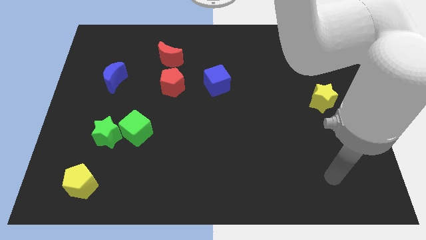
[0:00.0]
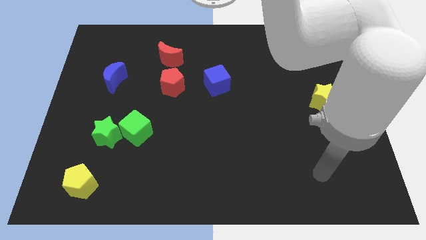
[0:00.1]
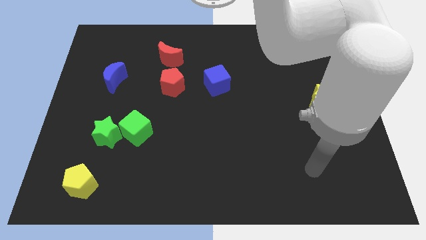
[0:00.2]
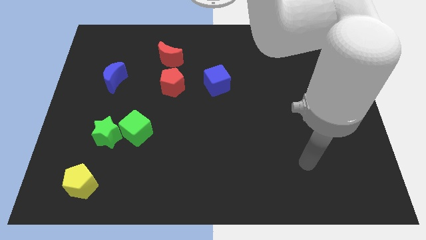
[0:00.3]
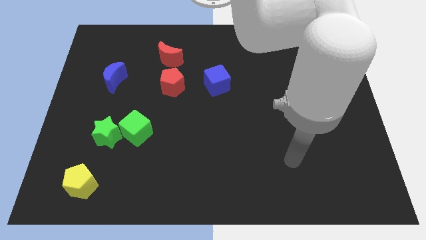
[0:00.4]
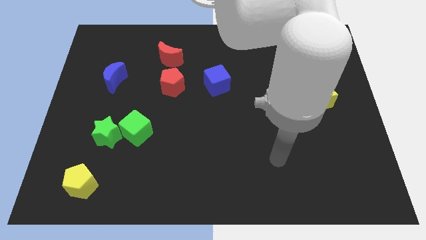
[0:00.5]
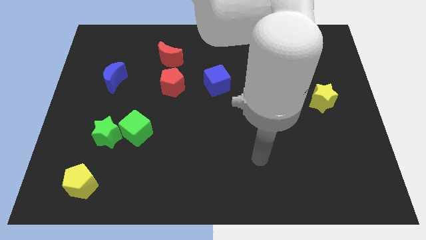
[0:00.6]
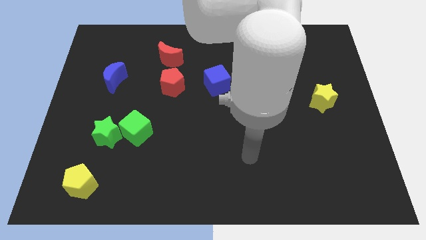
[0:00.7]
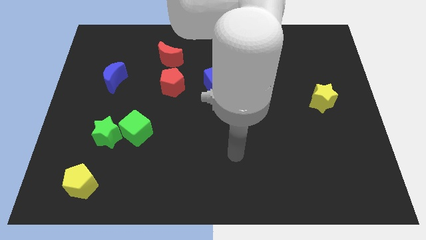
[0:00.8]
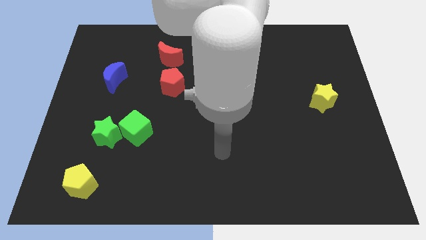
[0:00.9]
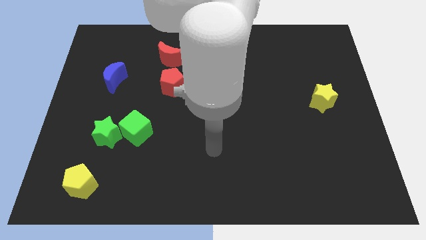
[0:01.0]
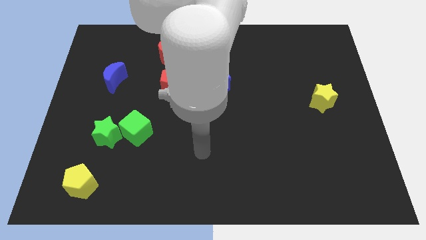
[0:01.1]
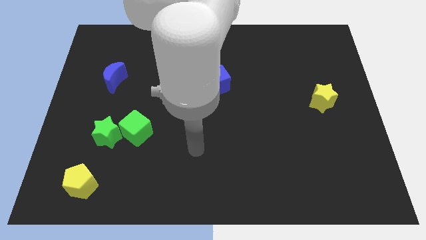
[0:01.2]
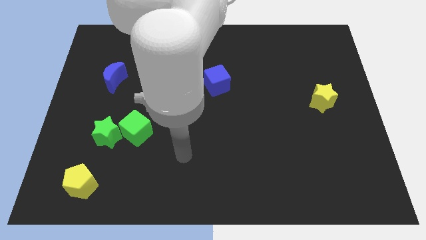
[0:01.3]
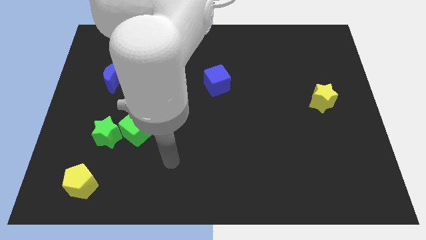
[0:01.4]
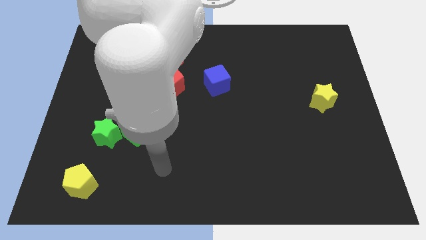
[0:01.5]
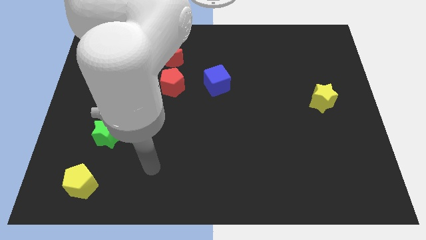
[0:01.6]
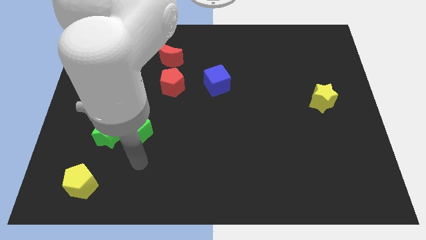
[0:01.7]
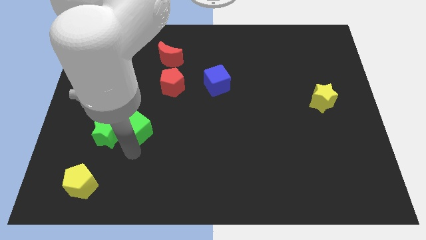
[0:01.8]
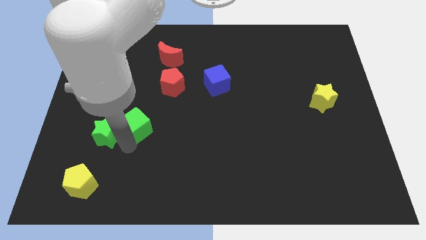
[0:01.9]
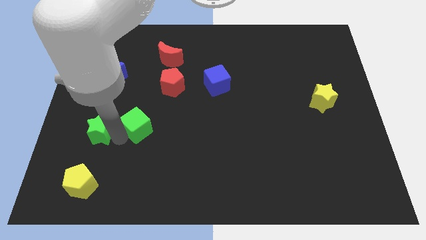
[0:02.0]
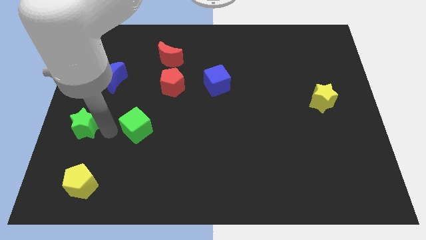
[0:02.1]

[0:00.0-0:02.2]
move the green cube away from the green star

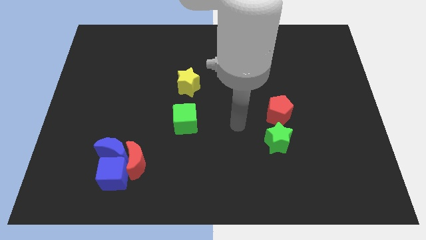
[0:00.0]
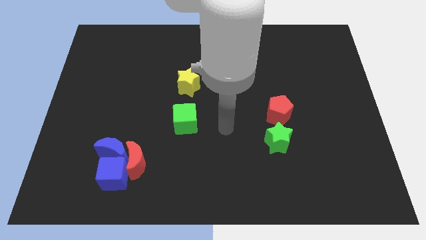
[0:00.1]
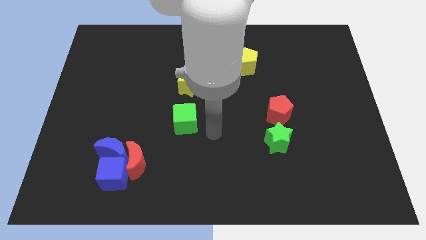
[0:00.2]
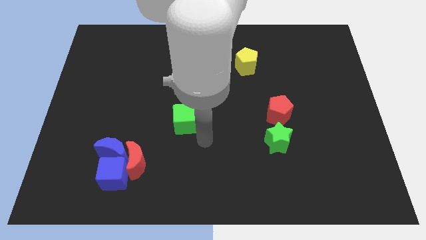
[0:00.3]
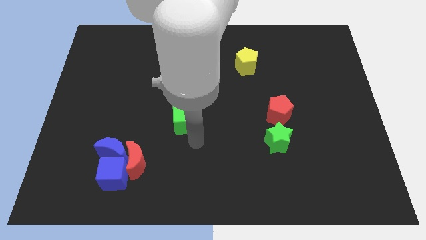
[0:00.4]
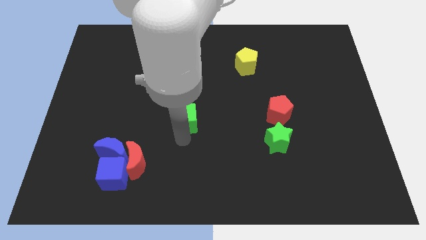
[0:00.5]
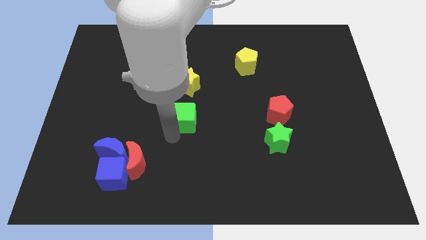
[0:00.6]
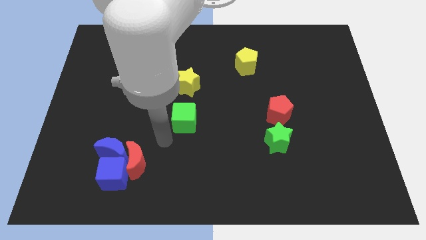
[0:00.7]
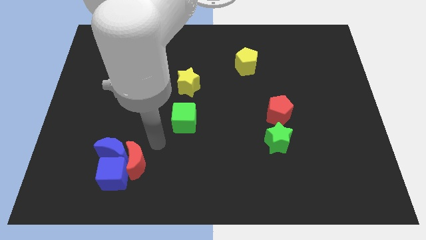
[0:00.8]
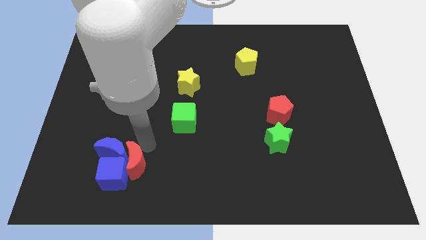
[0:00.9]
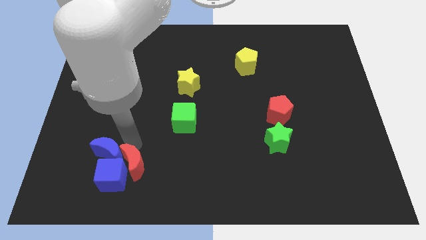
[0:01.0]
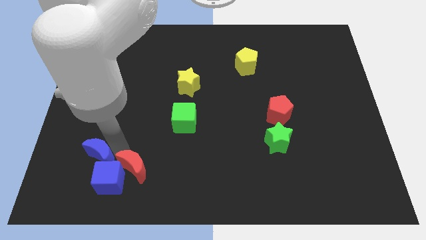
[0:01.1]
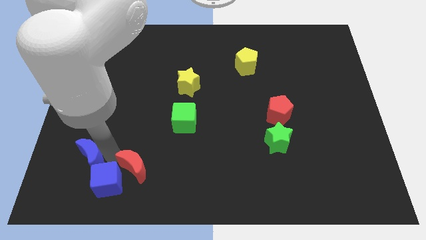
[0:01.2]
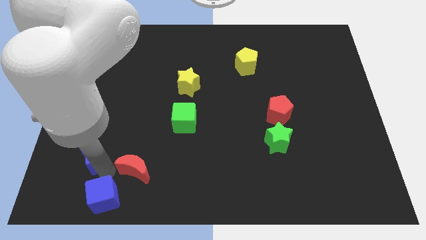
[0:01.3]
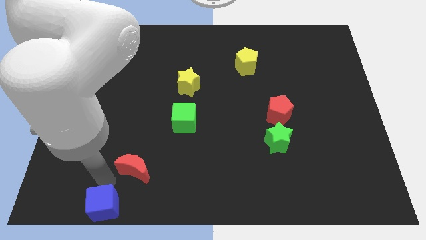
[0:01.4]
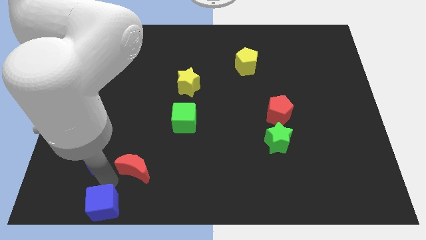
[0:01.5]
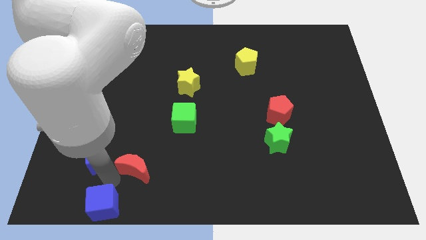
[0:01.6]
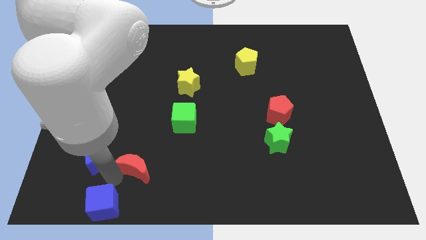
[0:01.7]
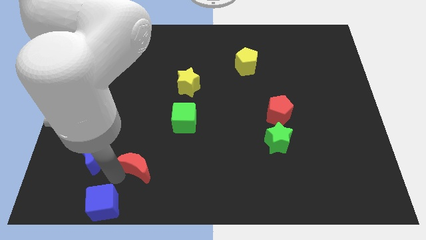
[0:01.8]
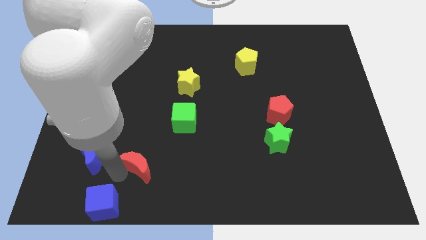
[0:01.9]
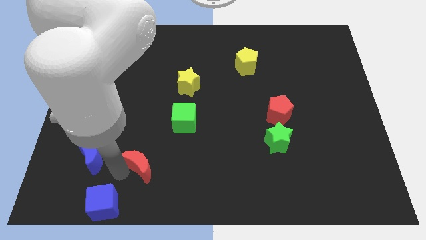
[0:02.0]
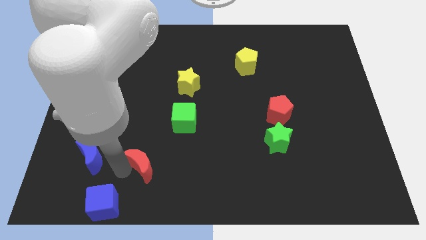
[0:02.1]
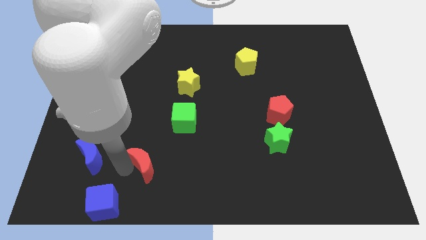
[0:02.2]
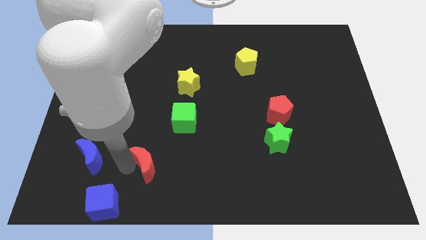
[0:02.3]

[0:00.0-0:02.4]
separate the red moon from the blue cube and blue moon

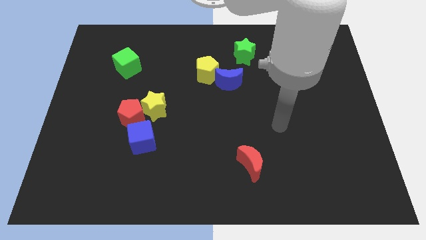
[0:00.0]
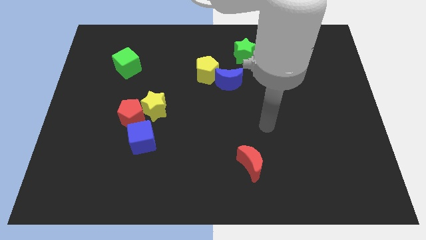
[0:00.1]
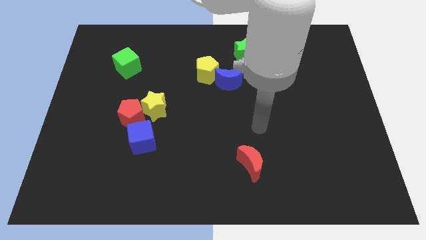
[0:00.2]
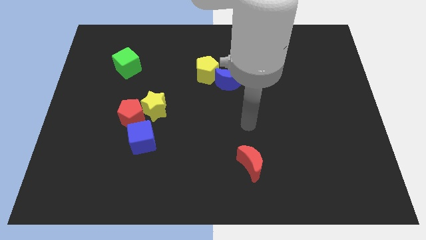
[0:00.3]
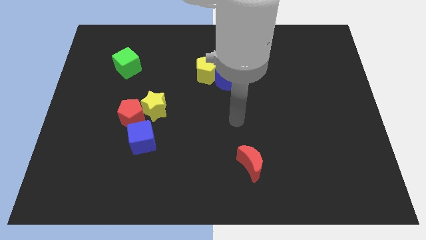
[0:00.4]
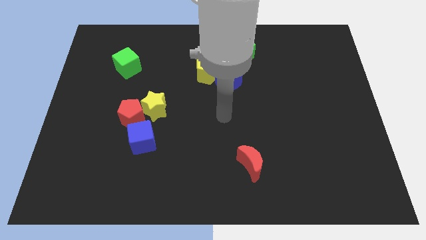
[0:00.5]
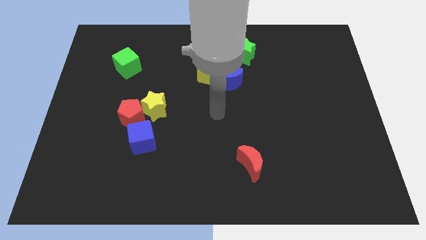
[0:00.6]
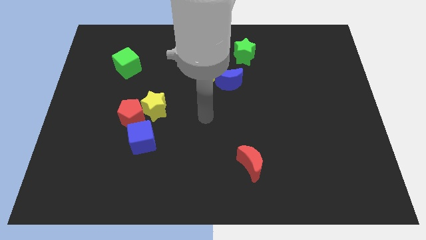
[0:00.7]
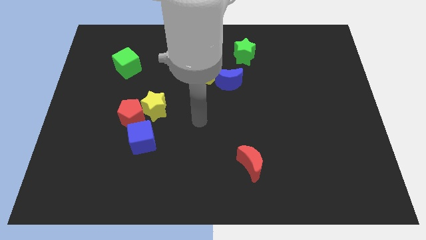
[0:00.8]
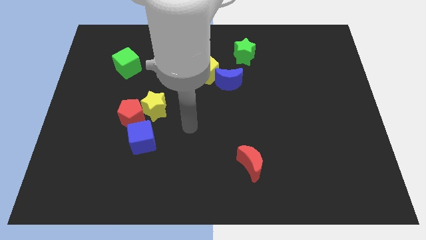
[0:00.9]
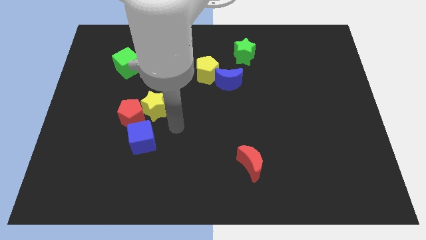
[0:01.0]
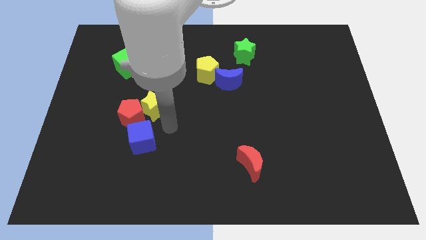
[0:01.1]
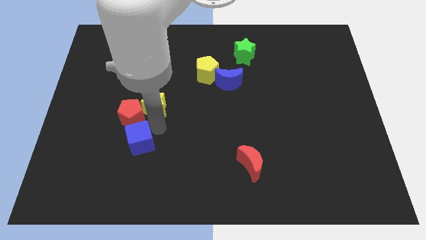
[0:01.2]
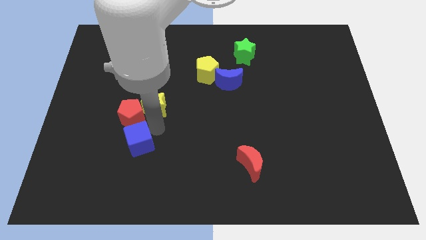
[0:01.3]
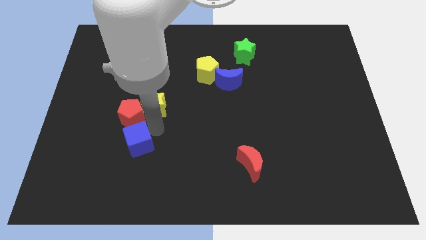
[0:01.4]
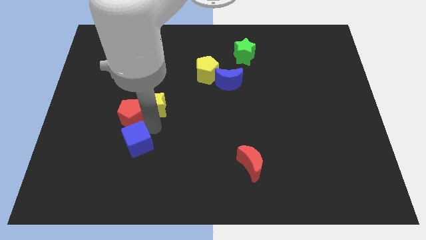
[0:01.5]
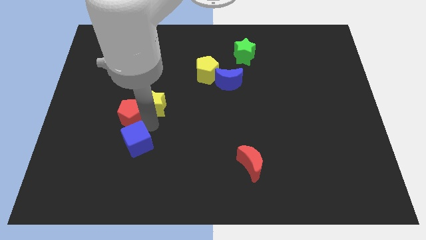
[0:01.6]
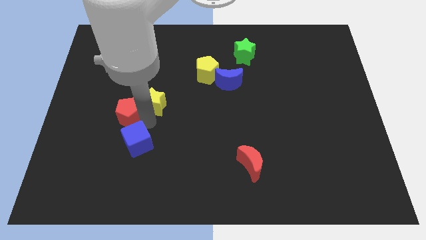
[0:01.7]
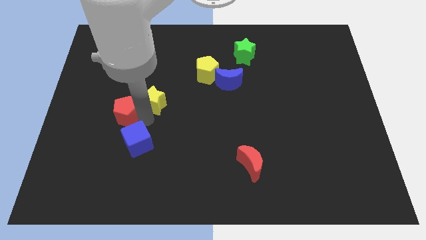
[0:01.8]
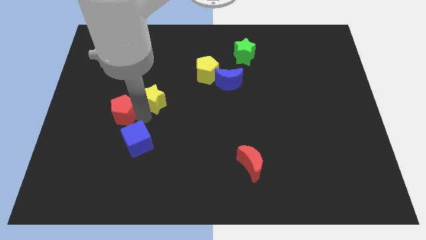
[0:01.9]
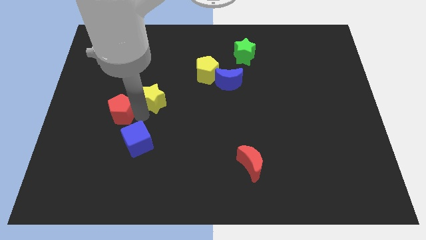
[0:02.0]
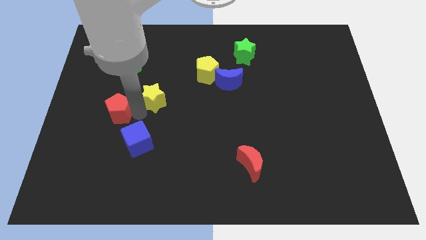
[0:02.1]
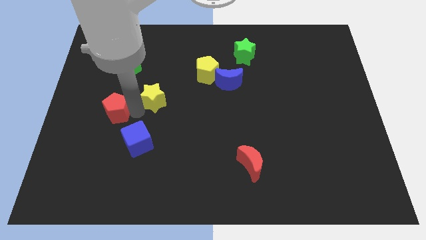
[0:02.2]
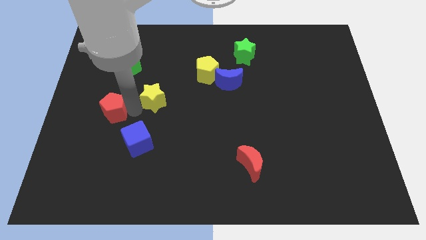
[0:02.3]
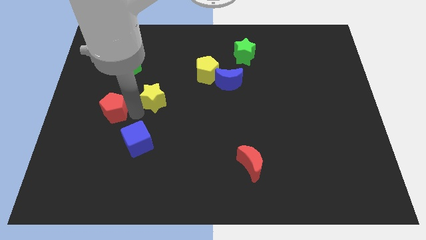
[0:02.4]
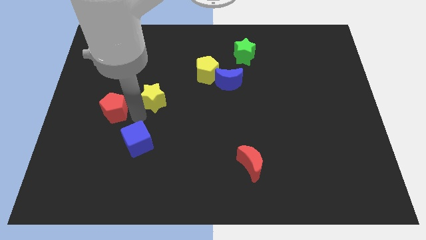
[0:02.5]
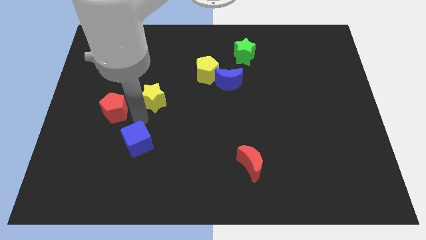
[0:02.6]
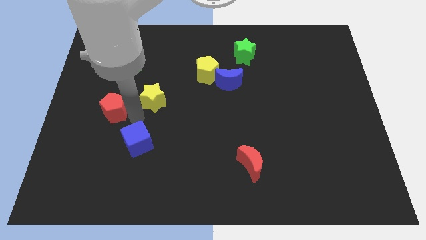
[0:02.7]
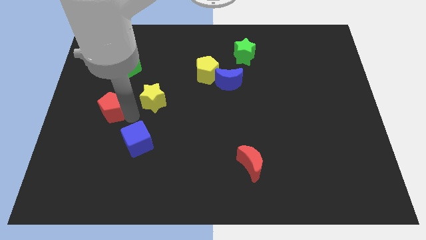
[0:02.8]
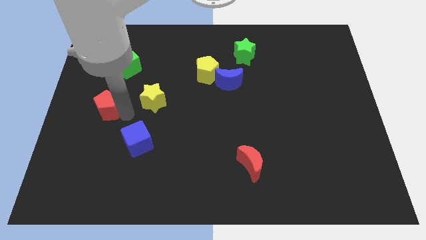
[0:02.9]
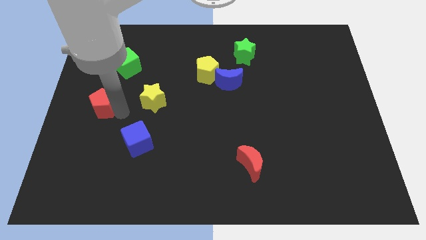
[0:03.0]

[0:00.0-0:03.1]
move the red pentagon away from the yellow star and blue cube

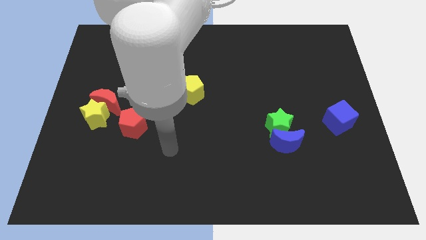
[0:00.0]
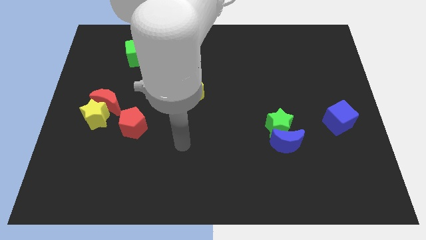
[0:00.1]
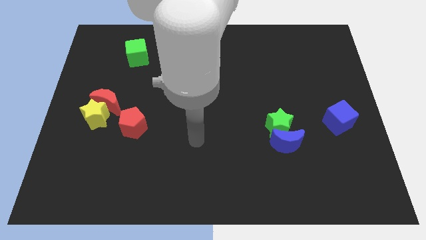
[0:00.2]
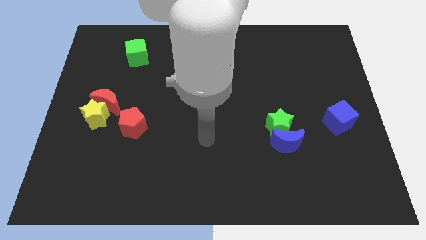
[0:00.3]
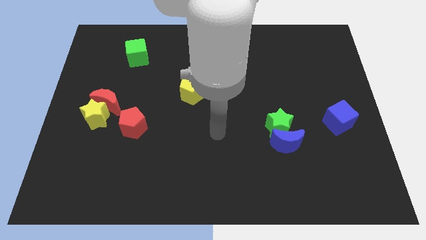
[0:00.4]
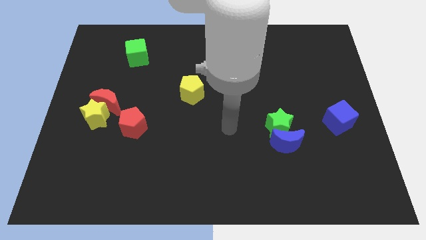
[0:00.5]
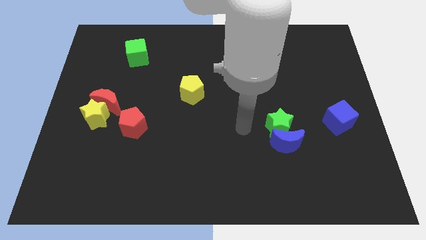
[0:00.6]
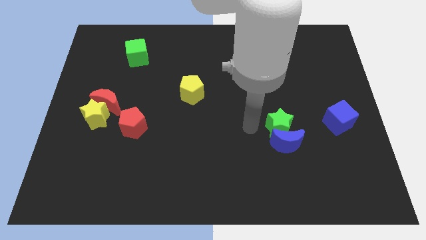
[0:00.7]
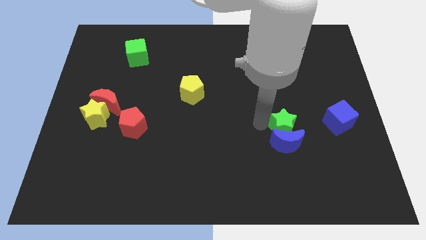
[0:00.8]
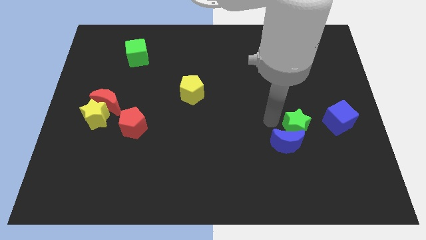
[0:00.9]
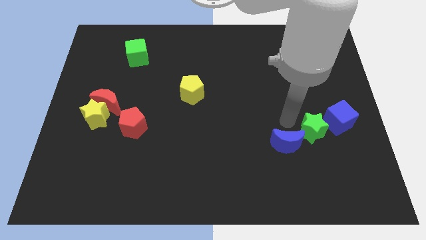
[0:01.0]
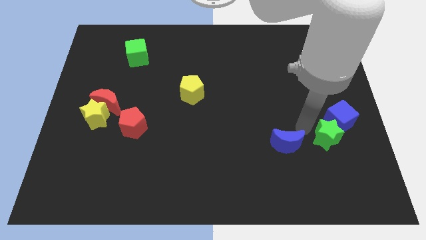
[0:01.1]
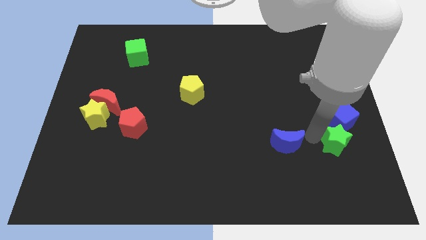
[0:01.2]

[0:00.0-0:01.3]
separate the blue moon from the green star

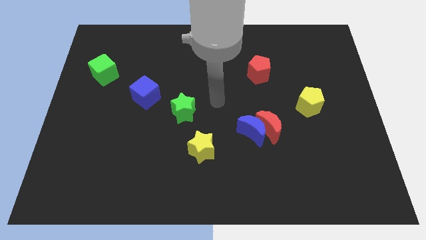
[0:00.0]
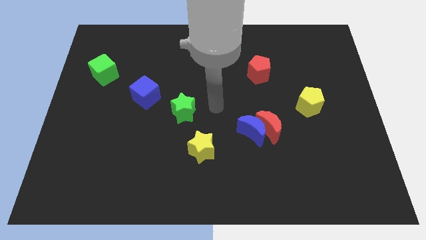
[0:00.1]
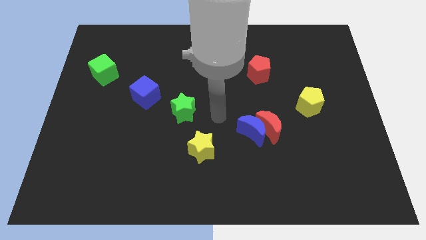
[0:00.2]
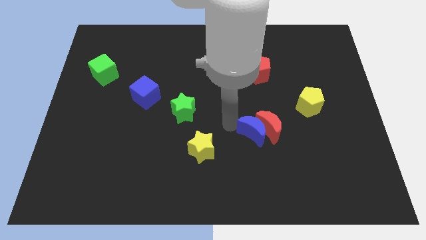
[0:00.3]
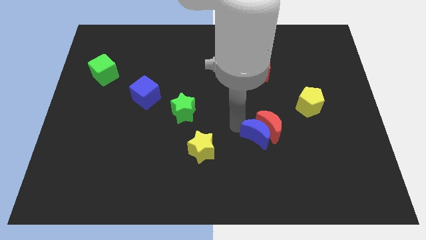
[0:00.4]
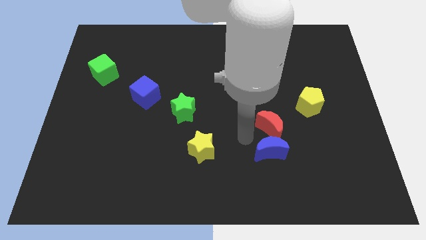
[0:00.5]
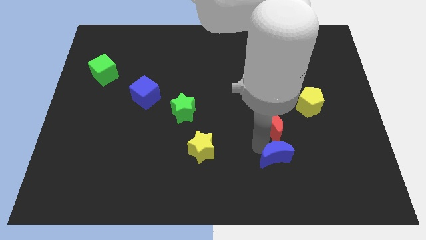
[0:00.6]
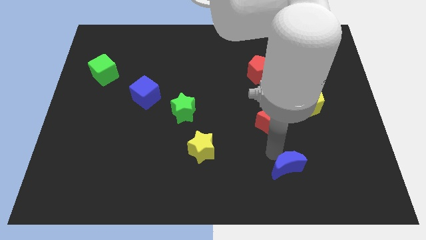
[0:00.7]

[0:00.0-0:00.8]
move the red moon away from the blue moon
